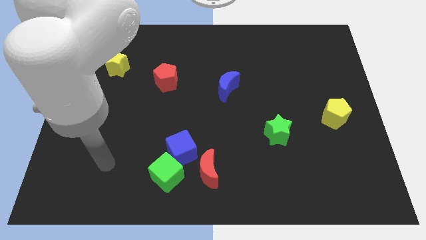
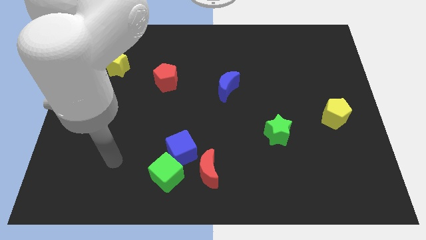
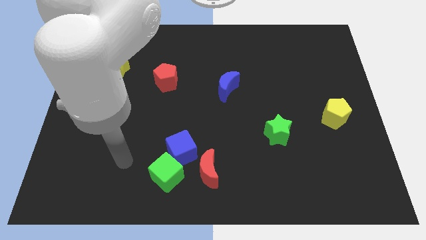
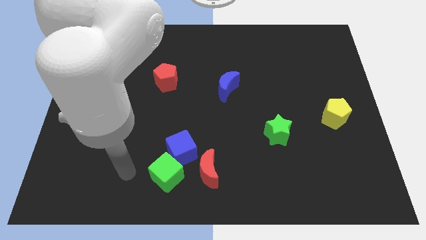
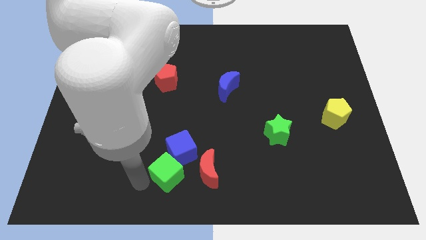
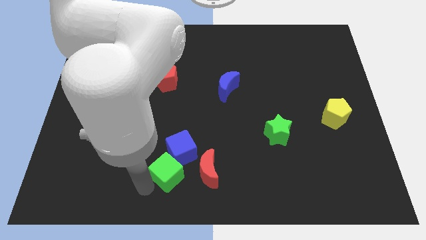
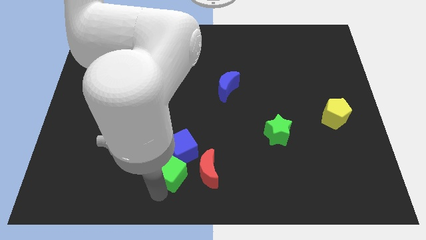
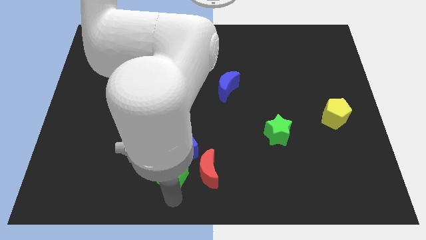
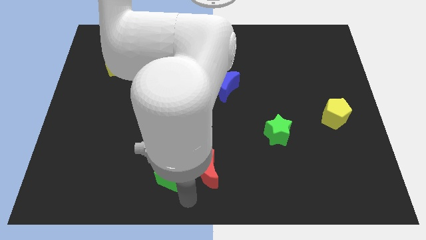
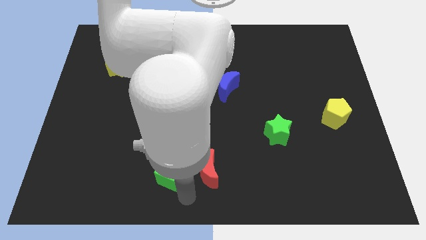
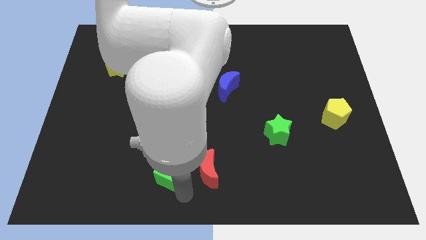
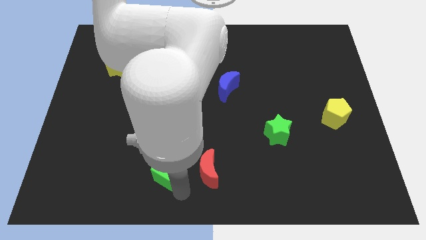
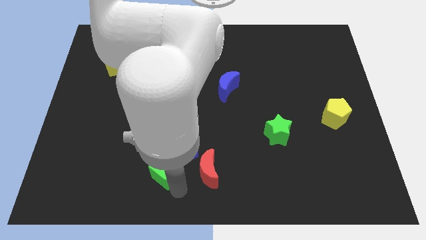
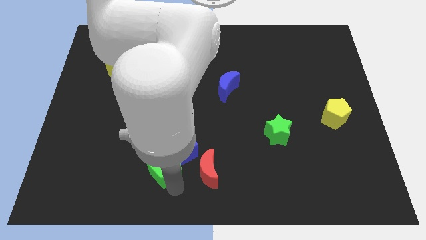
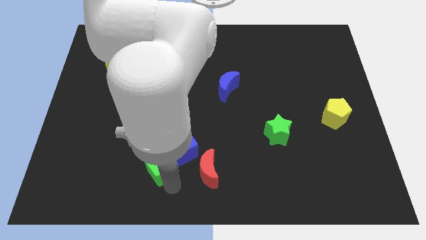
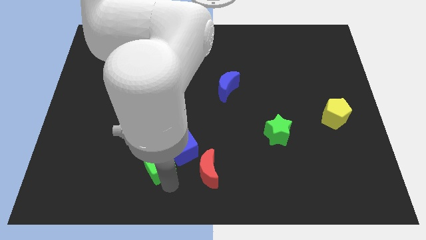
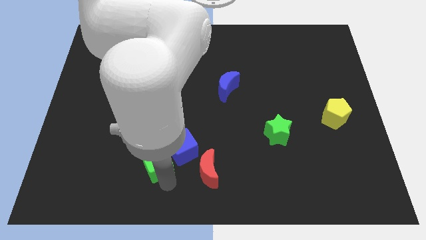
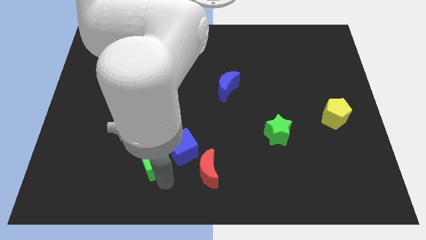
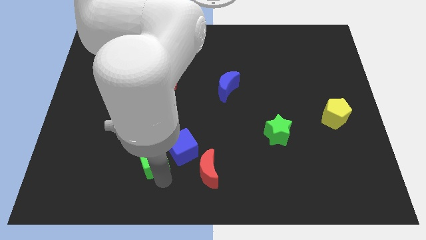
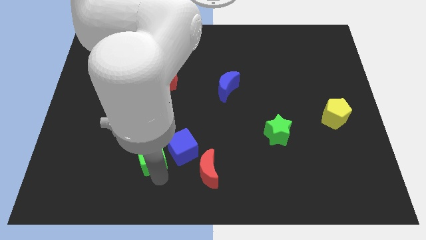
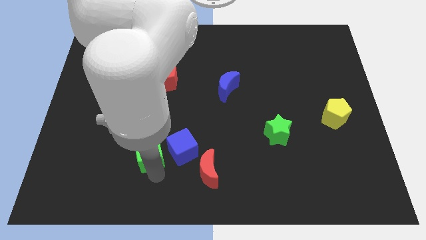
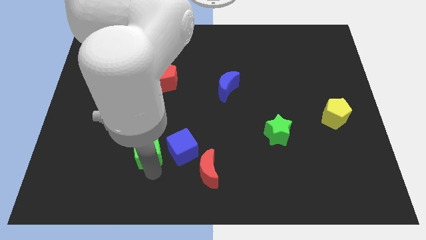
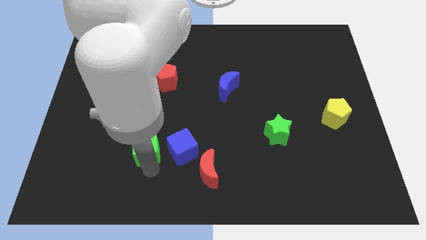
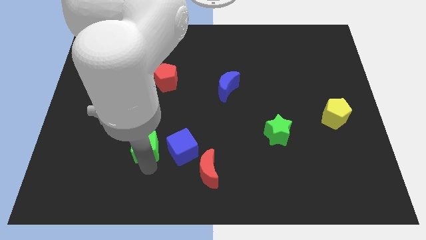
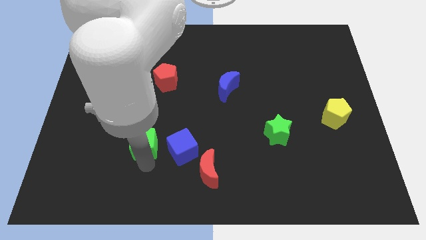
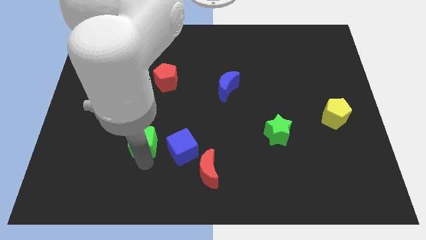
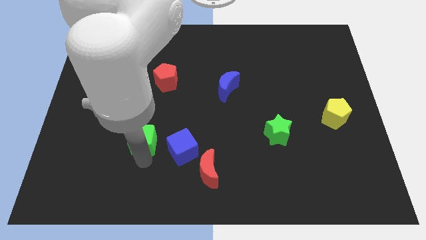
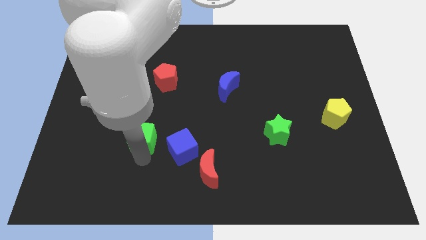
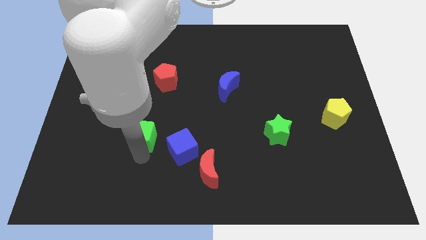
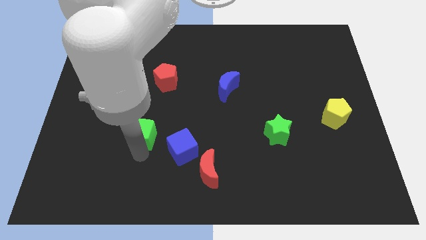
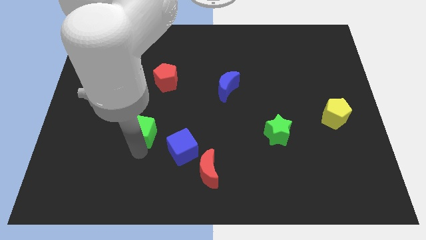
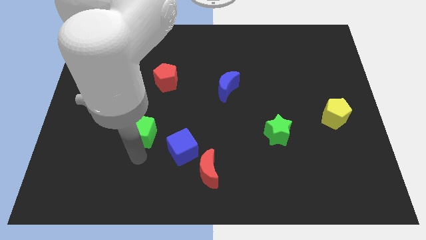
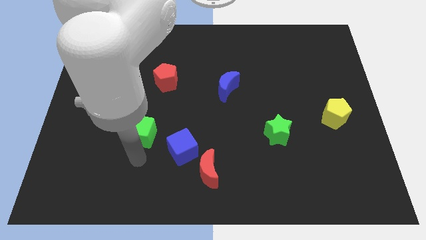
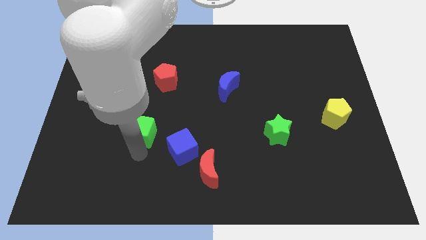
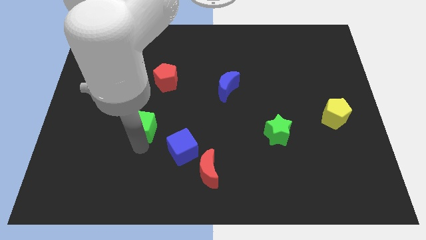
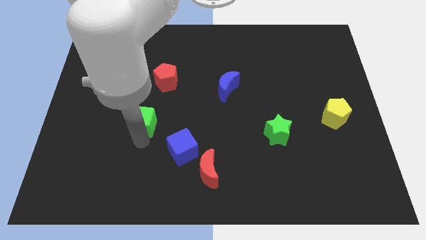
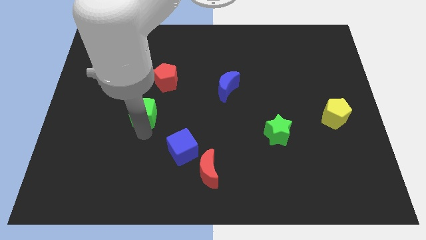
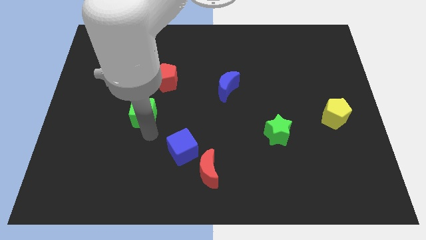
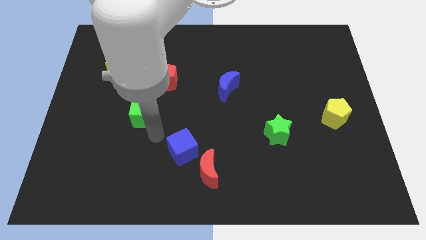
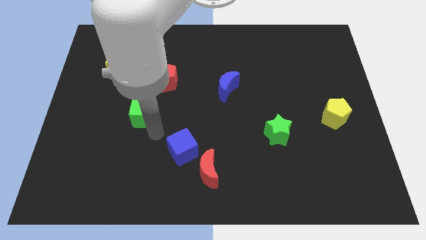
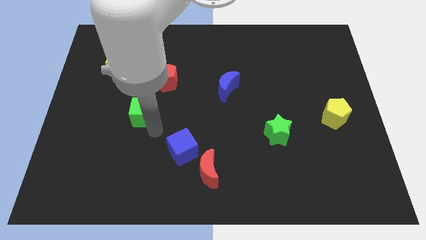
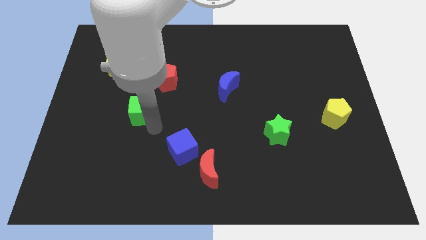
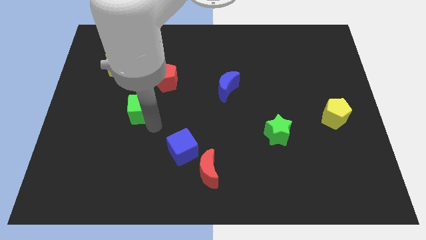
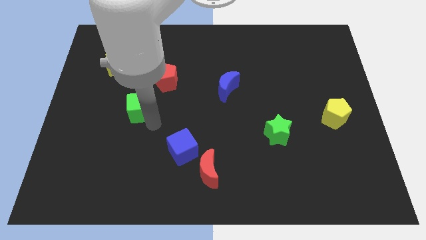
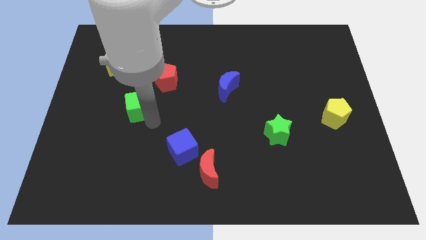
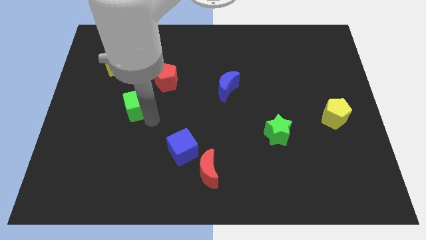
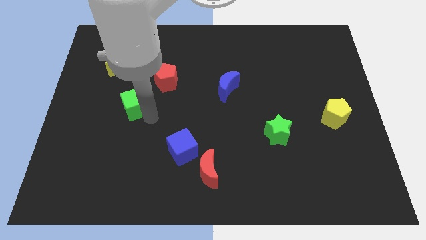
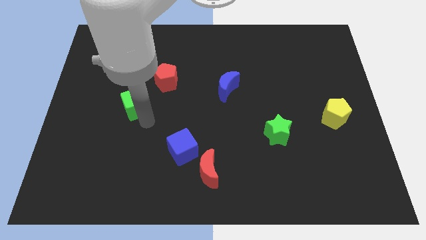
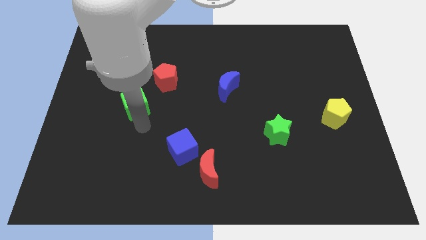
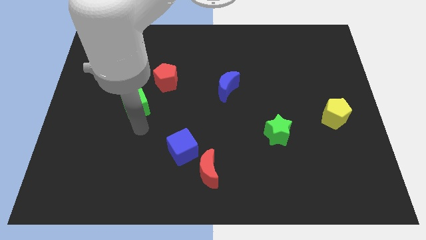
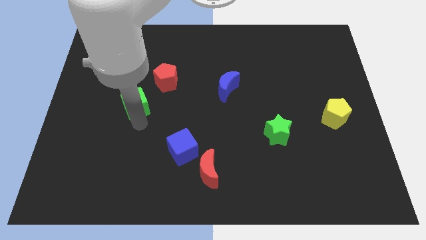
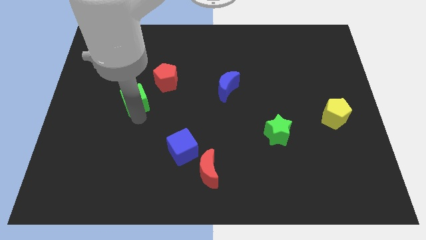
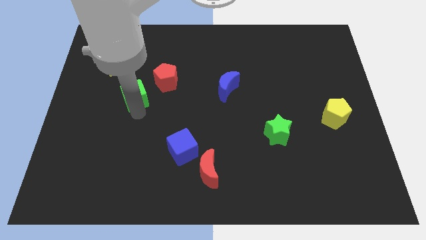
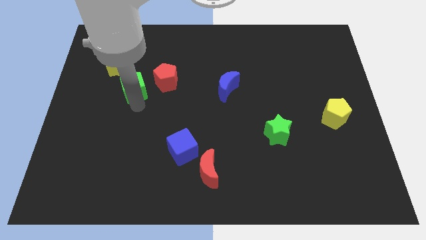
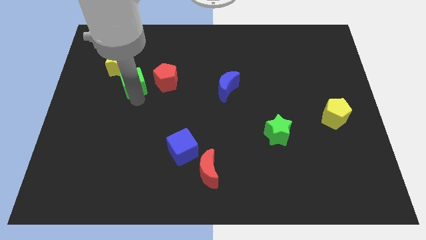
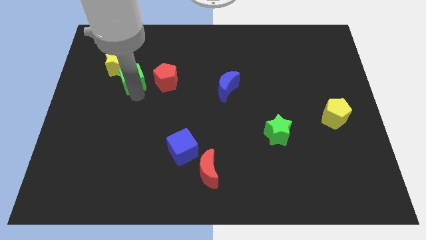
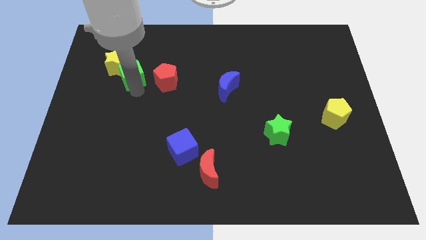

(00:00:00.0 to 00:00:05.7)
slide the green cube towards the yellow star

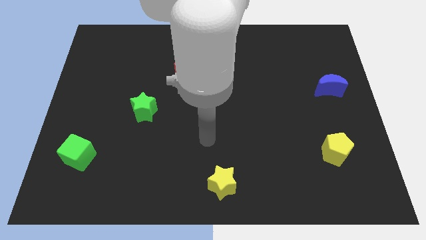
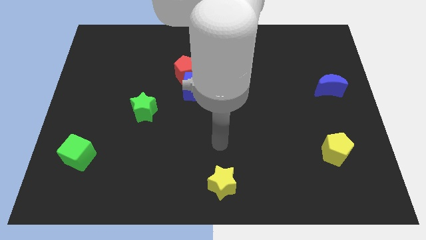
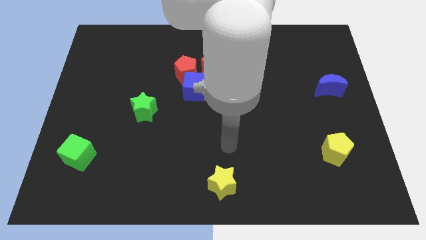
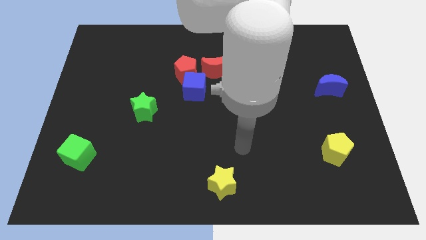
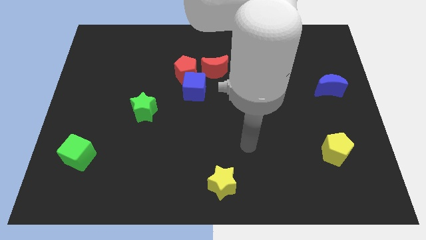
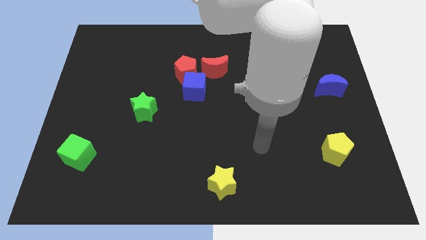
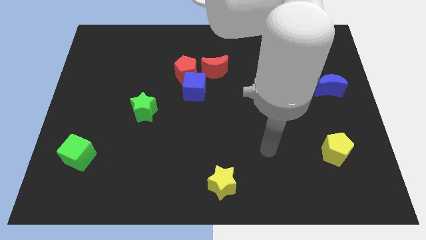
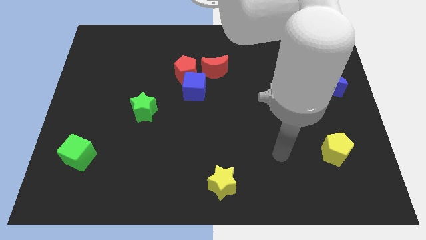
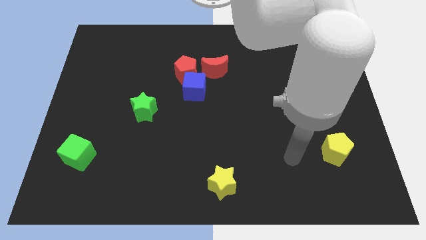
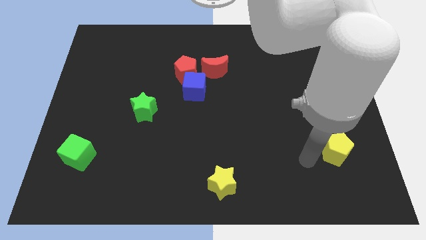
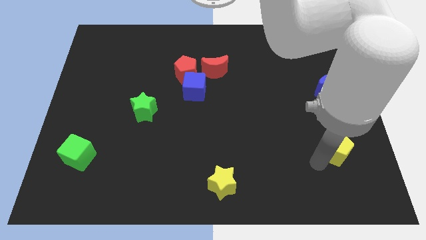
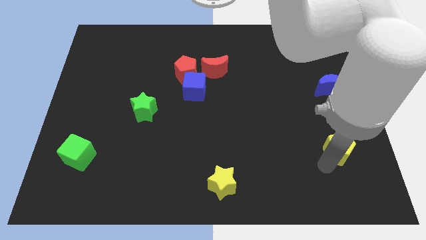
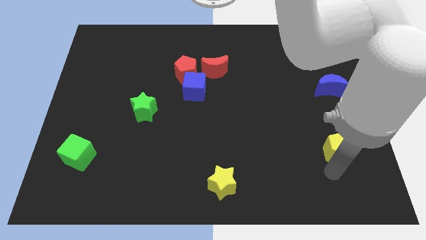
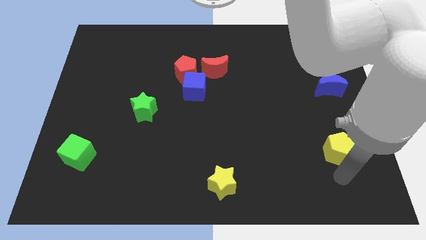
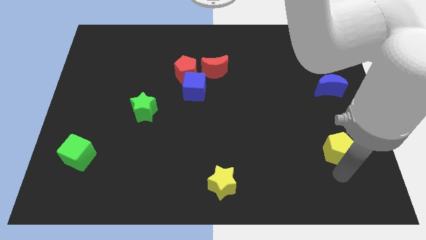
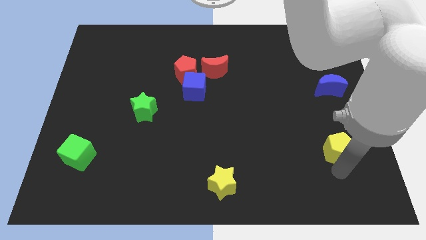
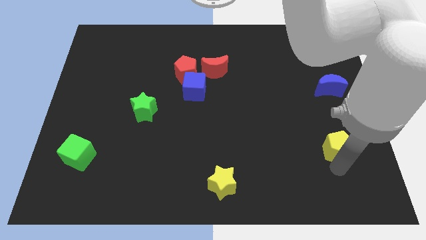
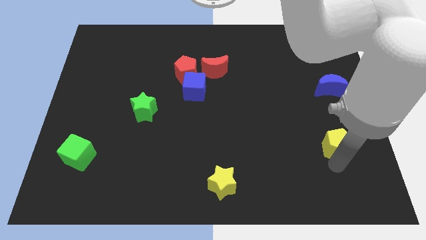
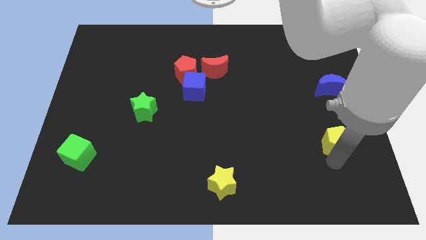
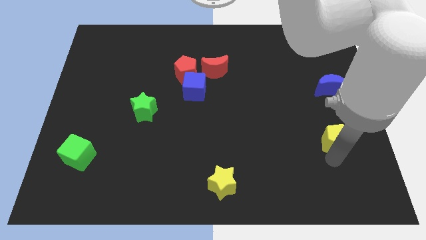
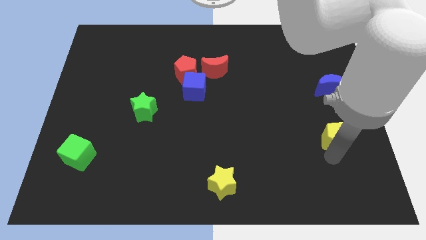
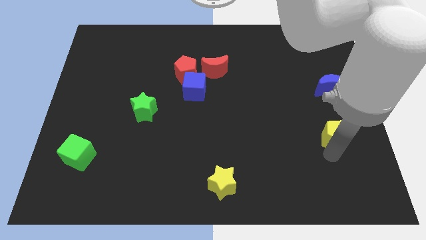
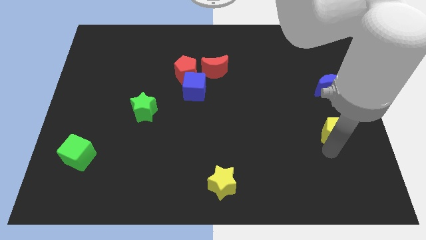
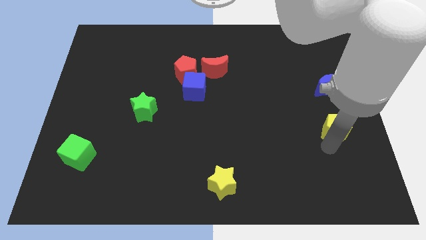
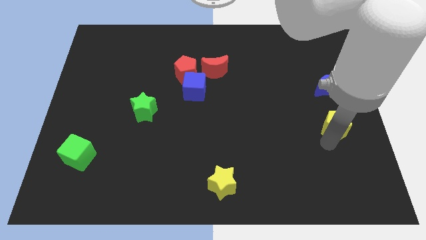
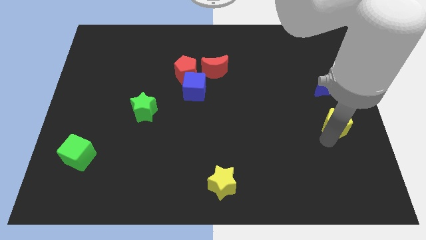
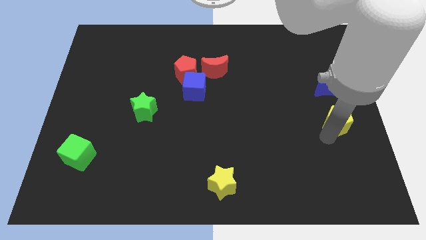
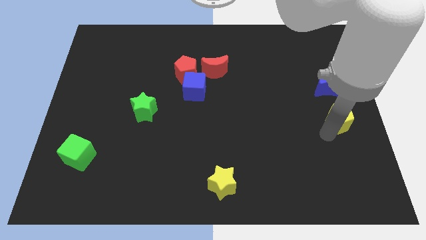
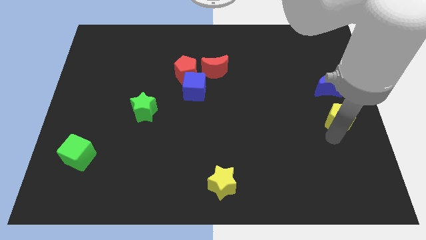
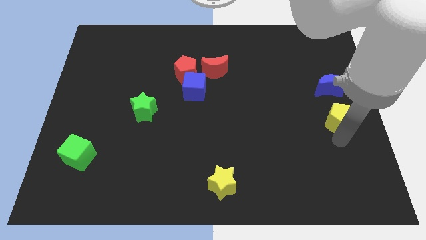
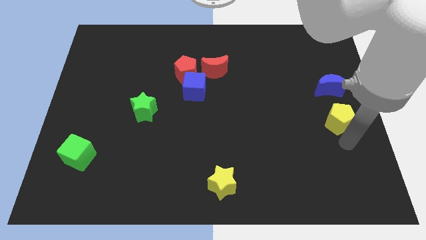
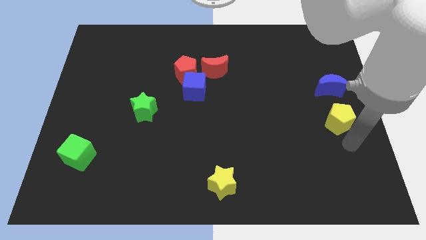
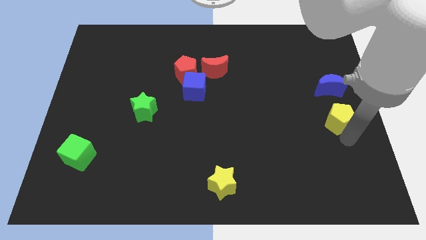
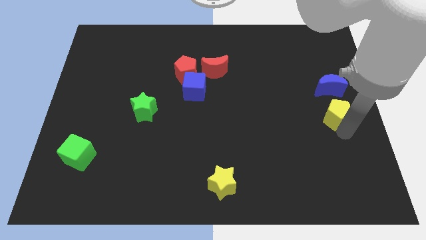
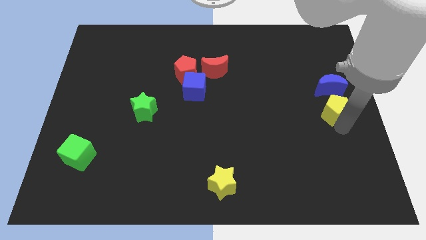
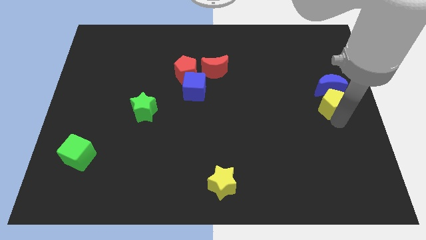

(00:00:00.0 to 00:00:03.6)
push the yellow pentagon close to the blue moon
